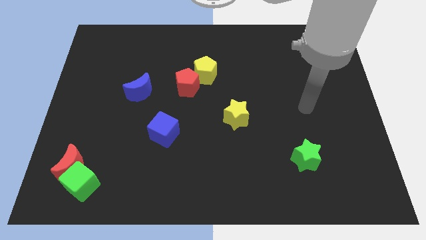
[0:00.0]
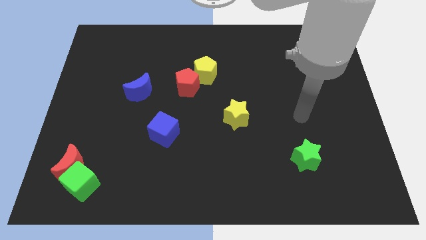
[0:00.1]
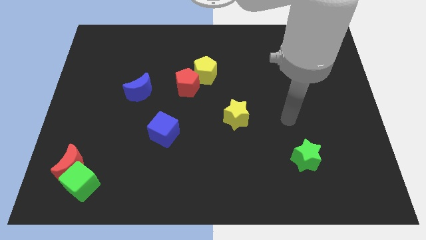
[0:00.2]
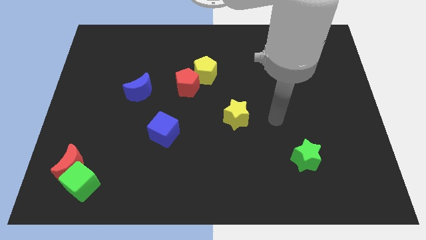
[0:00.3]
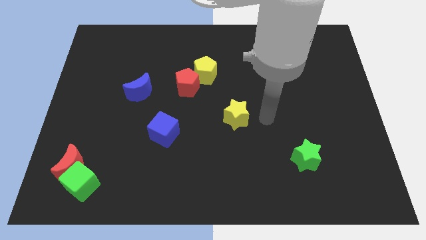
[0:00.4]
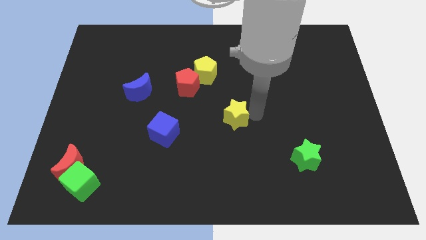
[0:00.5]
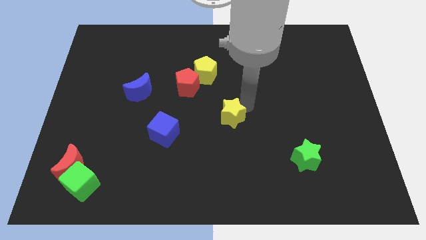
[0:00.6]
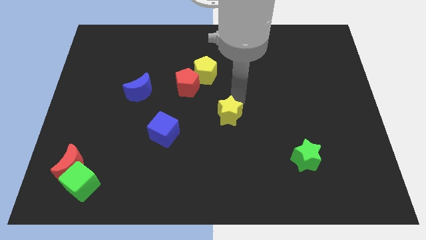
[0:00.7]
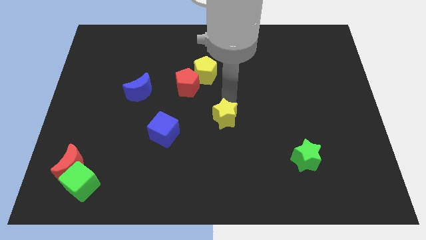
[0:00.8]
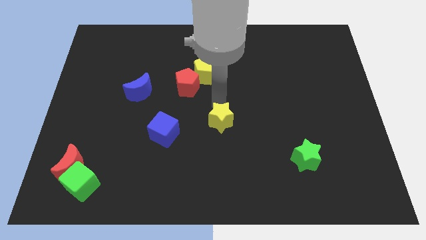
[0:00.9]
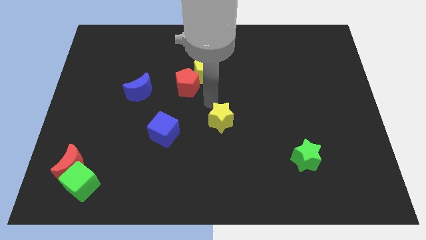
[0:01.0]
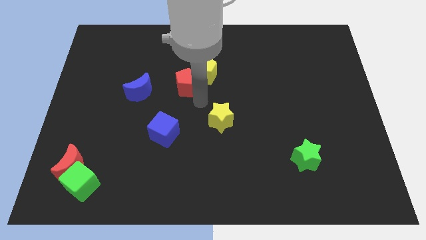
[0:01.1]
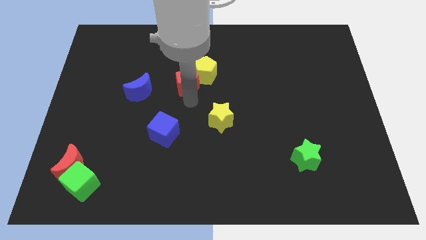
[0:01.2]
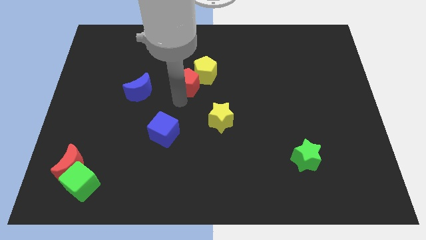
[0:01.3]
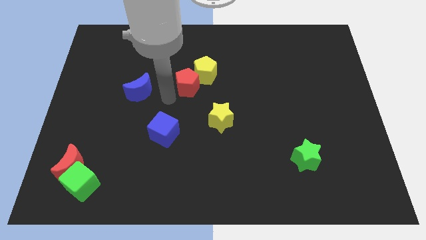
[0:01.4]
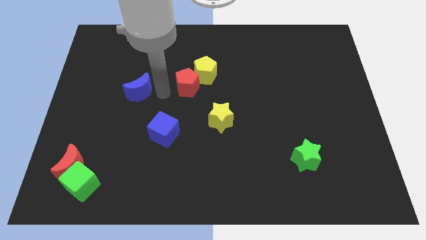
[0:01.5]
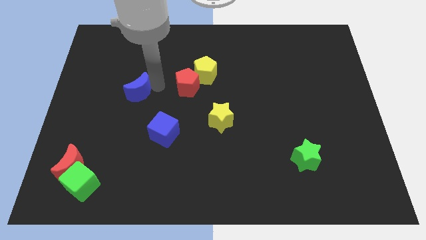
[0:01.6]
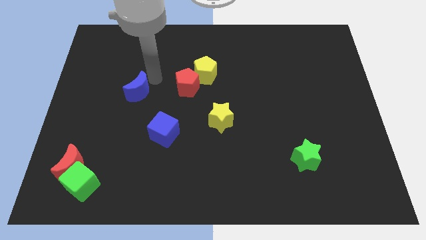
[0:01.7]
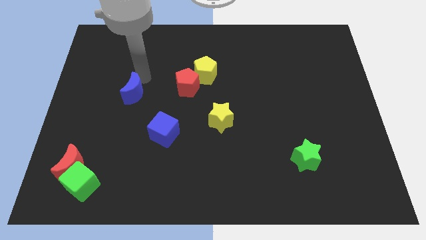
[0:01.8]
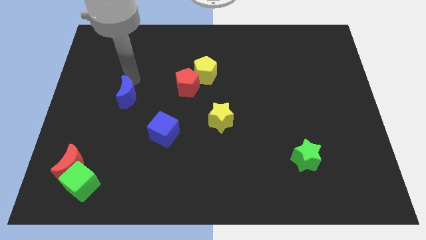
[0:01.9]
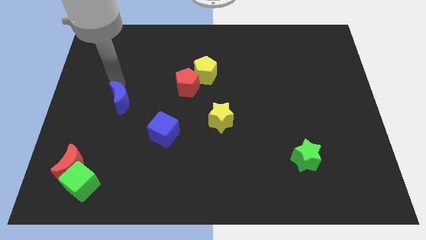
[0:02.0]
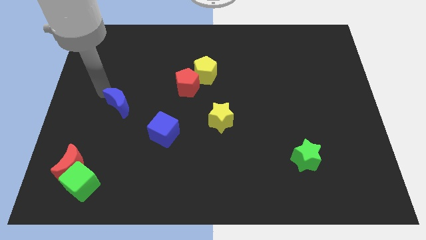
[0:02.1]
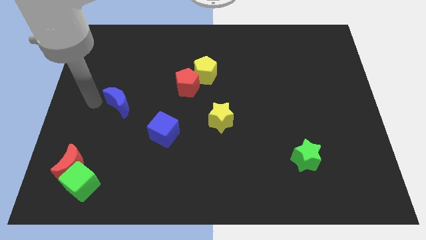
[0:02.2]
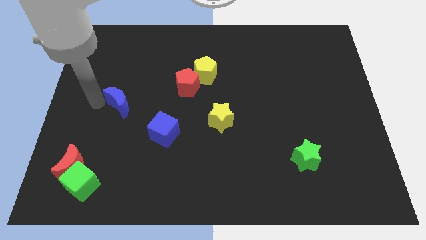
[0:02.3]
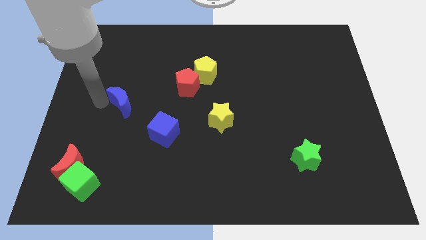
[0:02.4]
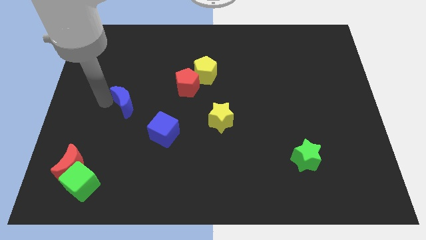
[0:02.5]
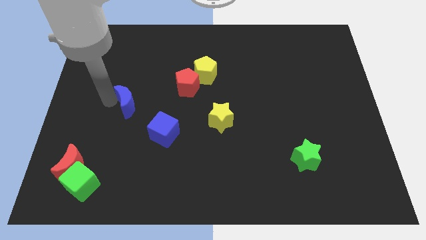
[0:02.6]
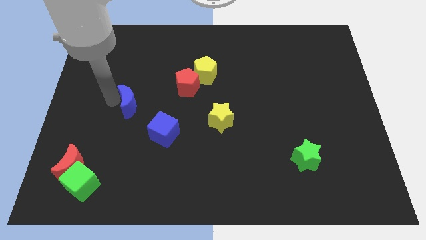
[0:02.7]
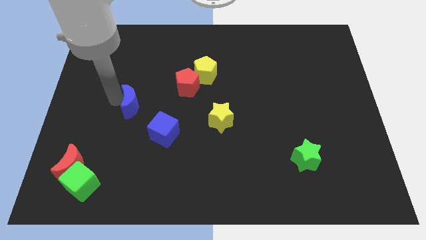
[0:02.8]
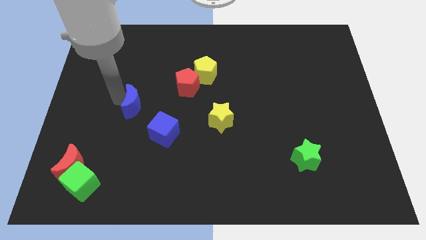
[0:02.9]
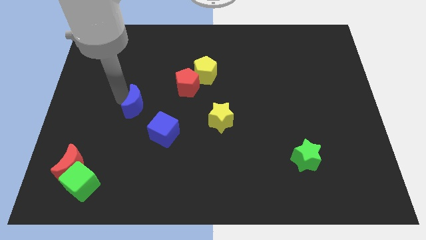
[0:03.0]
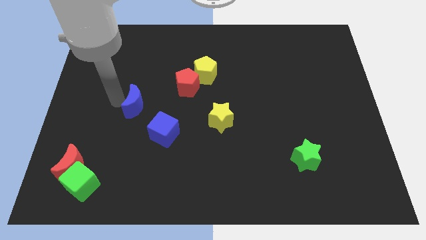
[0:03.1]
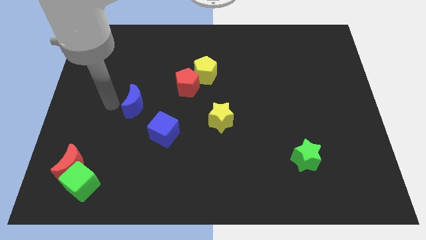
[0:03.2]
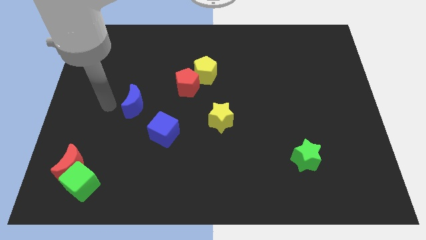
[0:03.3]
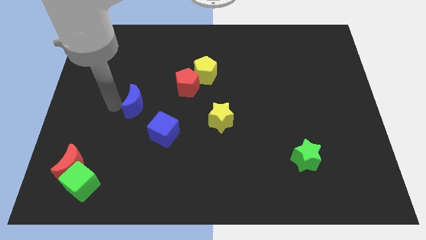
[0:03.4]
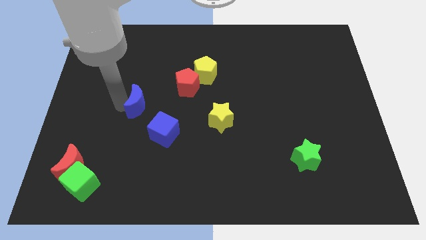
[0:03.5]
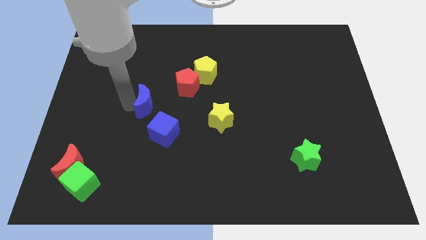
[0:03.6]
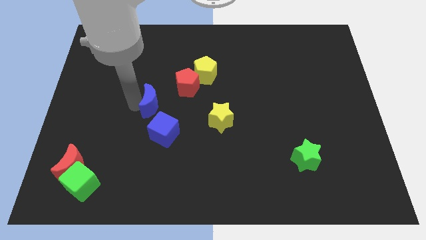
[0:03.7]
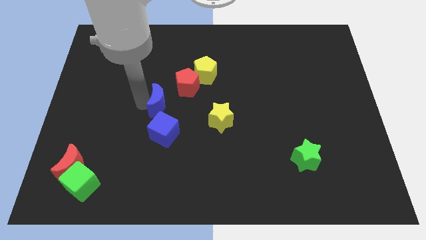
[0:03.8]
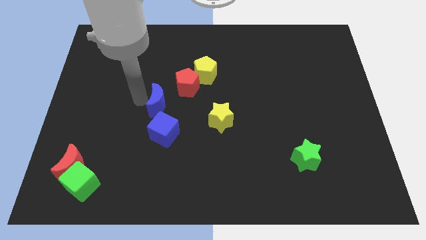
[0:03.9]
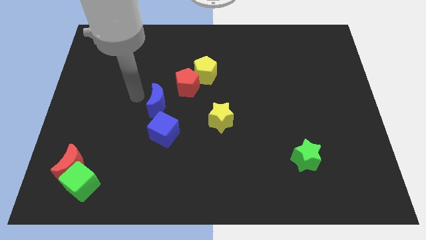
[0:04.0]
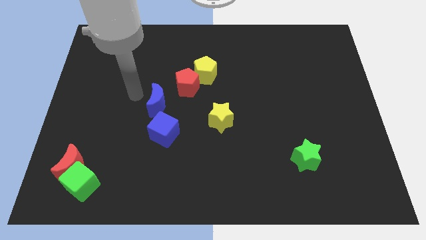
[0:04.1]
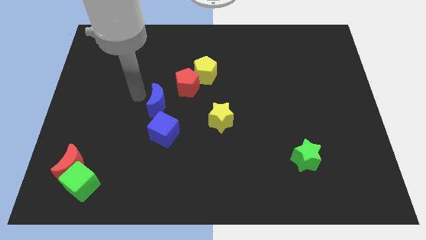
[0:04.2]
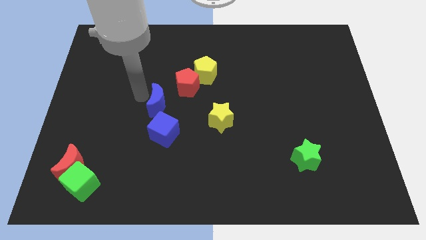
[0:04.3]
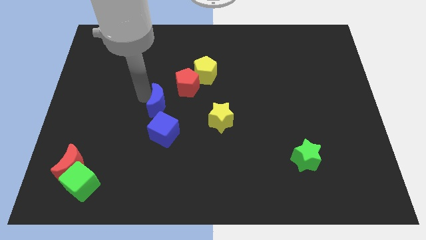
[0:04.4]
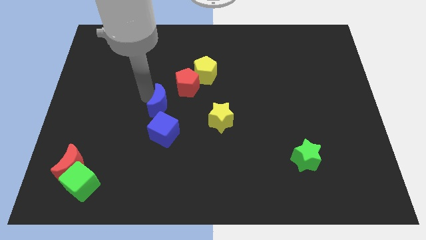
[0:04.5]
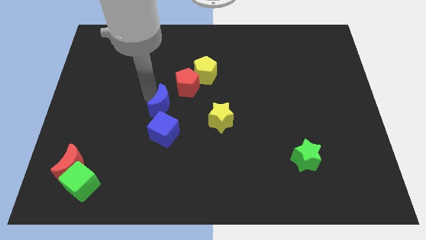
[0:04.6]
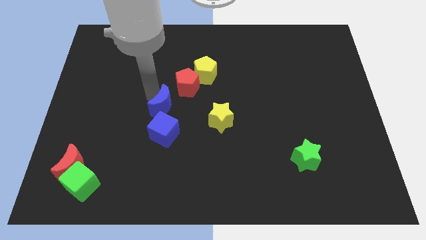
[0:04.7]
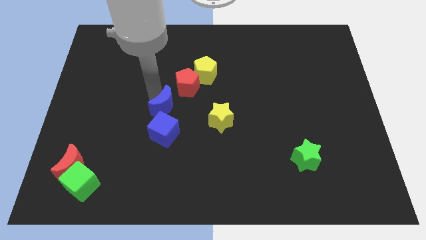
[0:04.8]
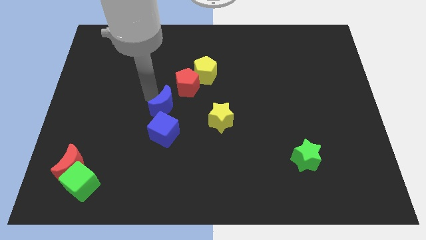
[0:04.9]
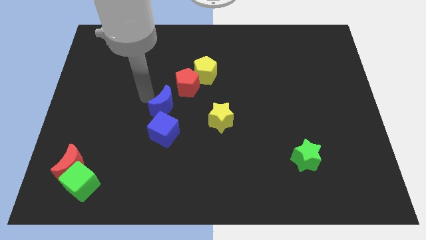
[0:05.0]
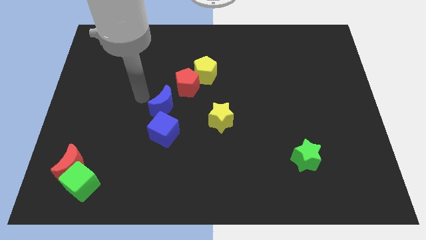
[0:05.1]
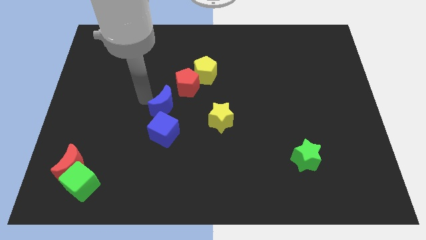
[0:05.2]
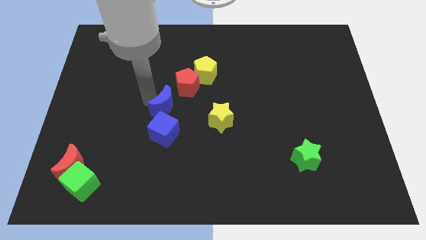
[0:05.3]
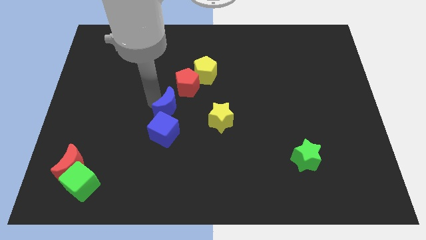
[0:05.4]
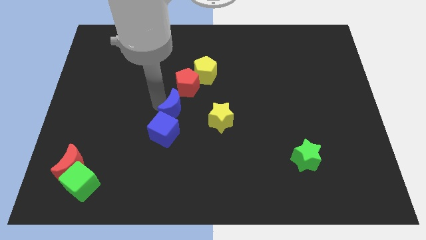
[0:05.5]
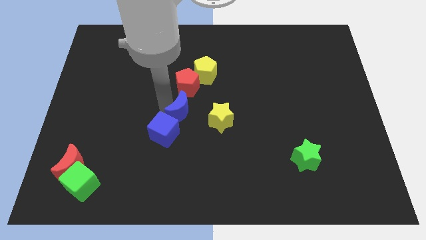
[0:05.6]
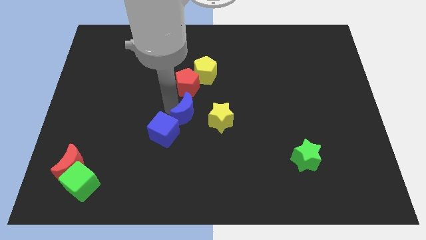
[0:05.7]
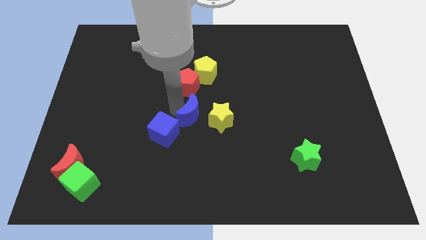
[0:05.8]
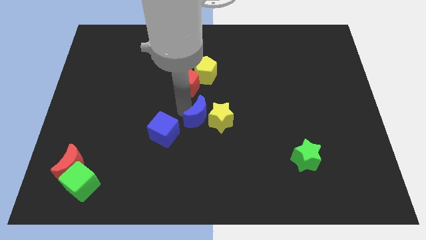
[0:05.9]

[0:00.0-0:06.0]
slide the blue moon to the bottom left of the yellow star

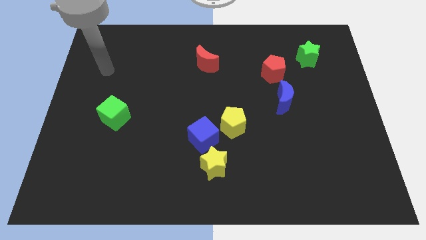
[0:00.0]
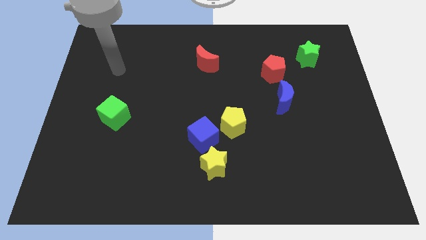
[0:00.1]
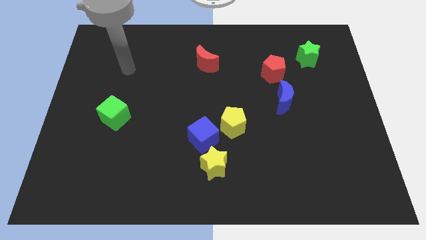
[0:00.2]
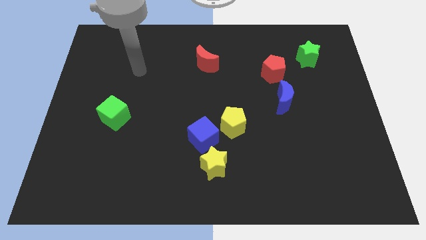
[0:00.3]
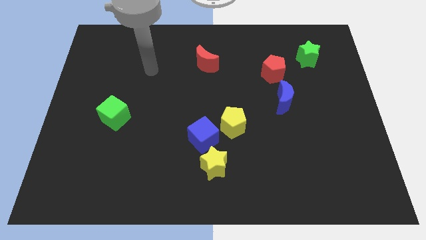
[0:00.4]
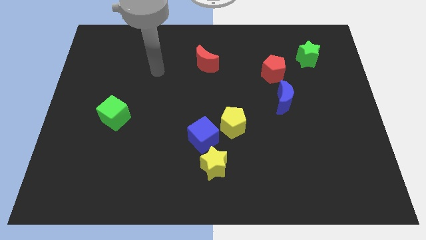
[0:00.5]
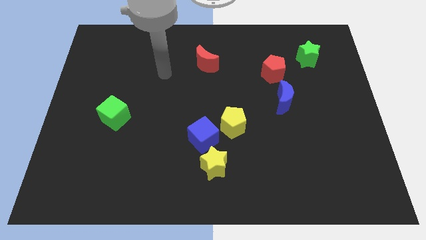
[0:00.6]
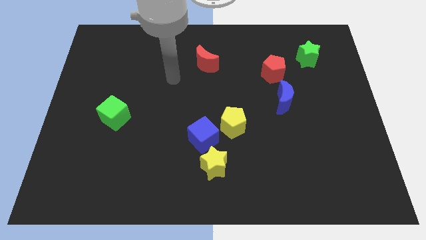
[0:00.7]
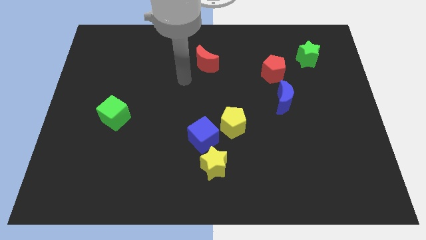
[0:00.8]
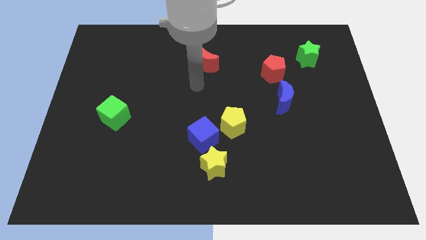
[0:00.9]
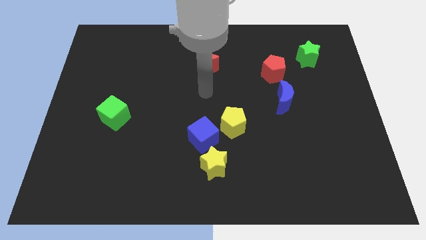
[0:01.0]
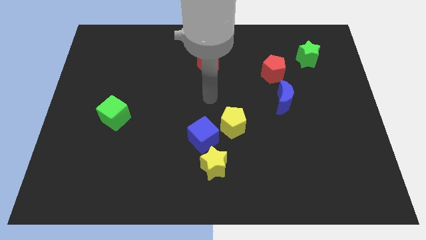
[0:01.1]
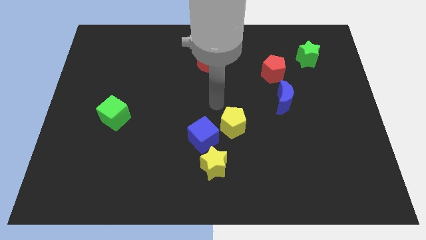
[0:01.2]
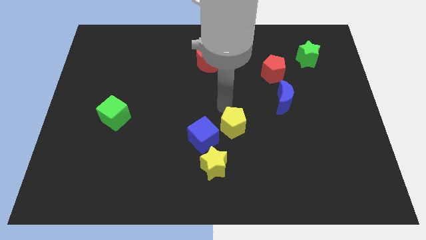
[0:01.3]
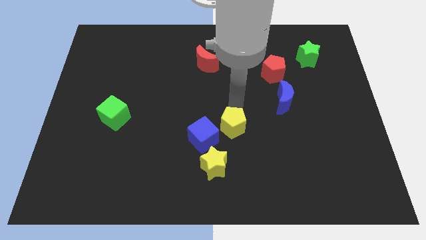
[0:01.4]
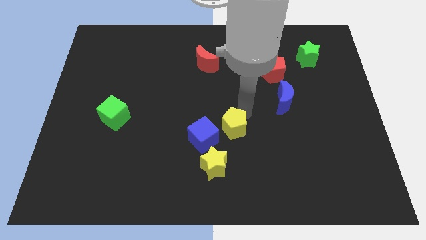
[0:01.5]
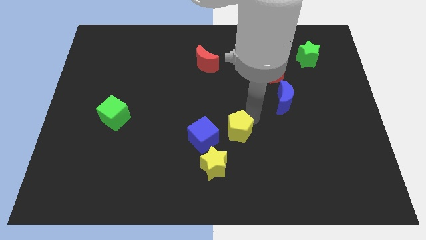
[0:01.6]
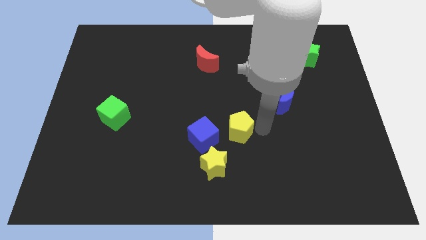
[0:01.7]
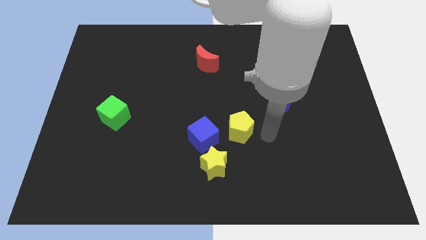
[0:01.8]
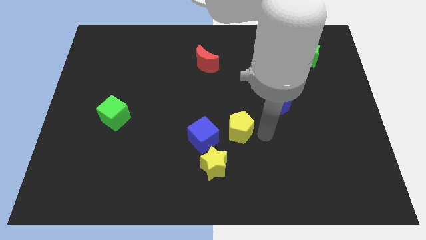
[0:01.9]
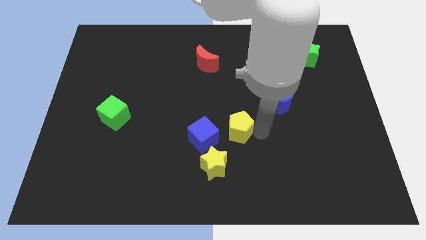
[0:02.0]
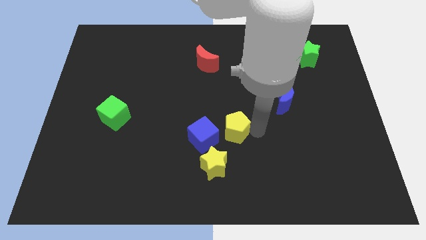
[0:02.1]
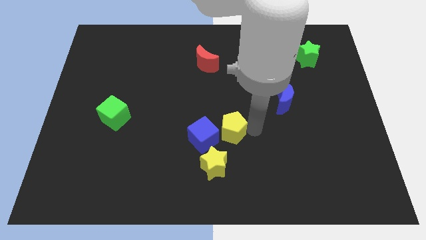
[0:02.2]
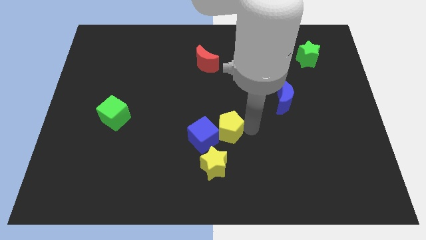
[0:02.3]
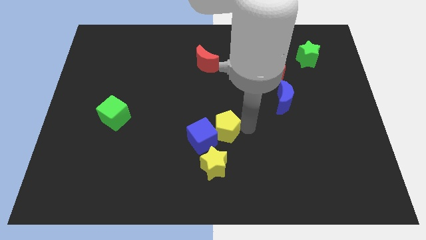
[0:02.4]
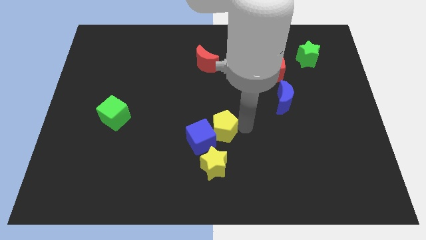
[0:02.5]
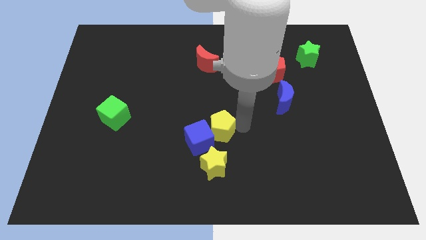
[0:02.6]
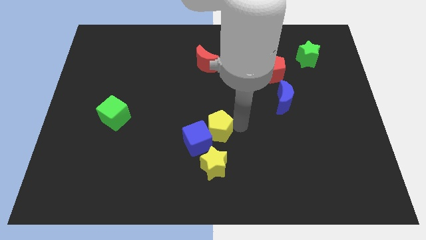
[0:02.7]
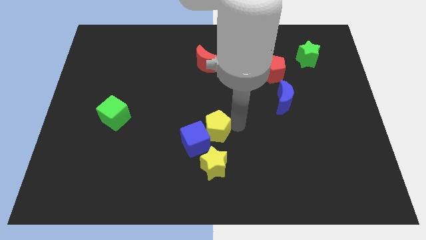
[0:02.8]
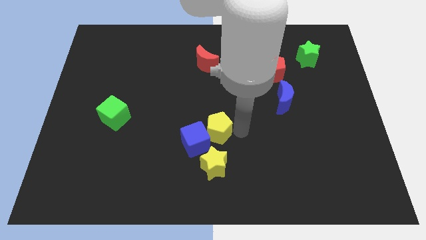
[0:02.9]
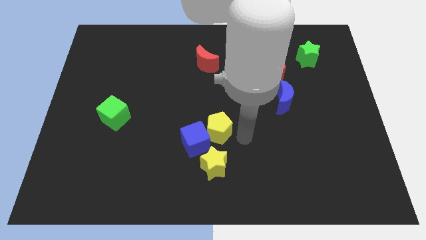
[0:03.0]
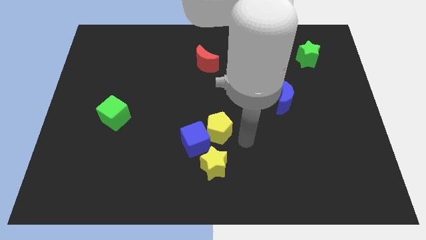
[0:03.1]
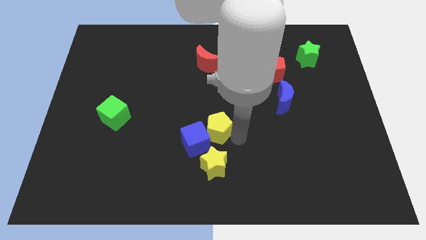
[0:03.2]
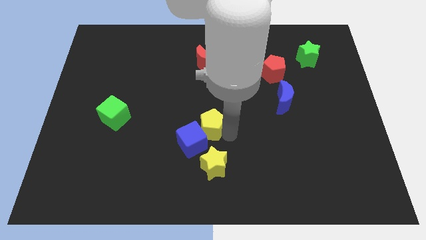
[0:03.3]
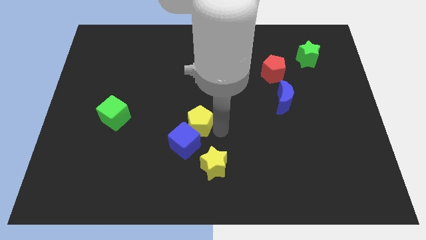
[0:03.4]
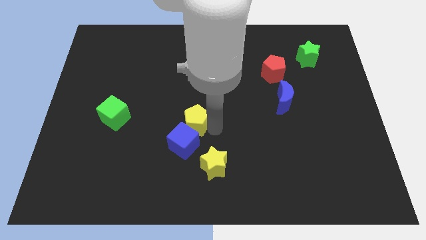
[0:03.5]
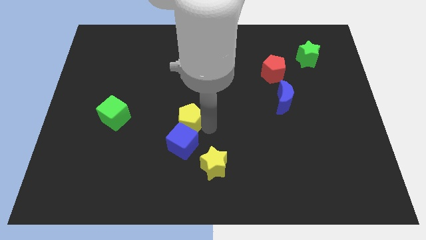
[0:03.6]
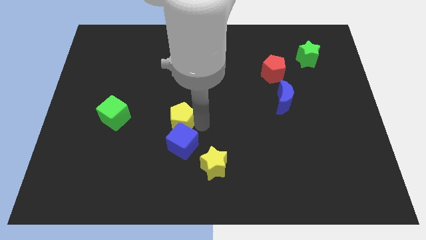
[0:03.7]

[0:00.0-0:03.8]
push the yellow pentagon right of the green cube
